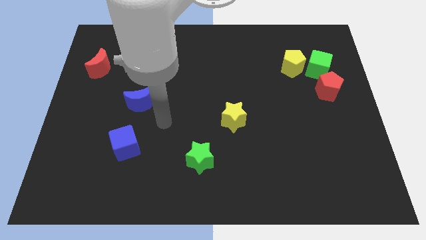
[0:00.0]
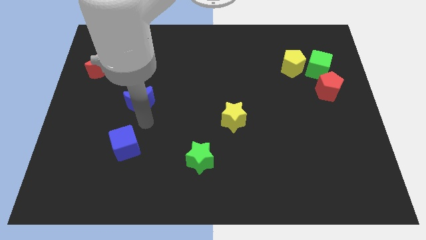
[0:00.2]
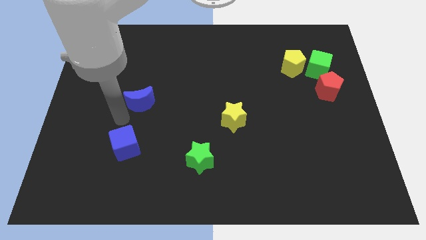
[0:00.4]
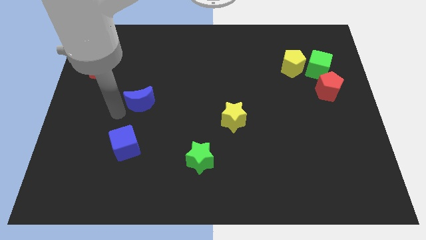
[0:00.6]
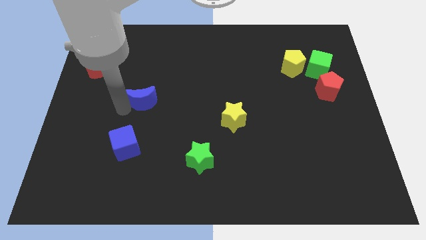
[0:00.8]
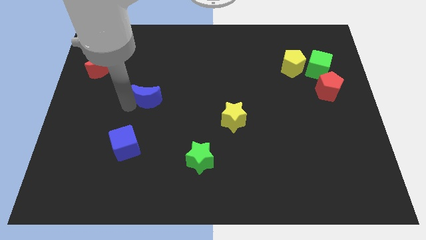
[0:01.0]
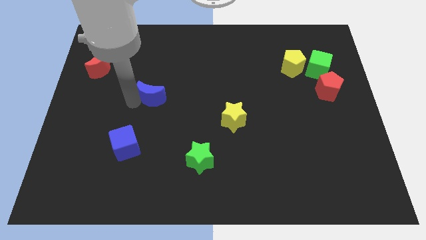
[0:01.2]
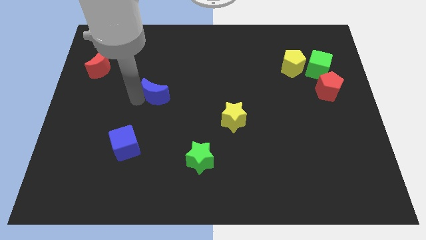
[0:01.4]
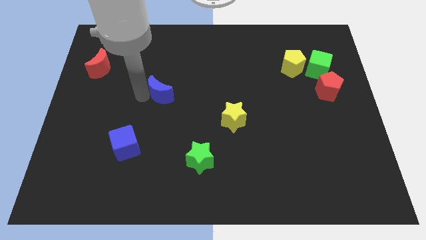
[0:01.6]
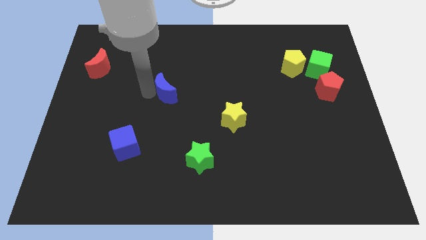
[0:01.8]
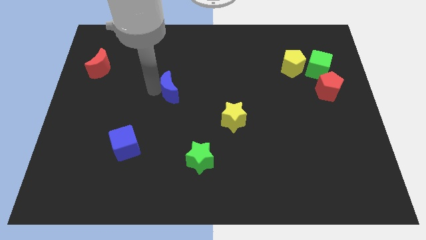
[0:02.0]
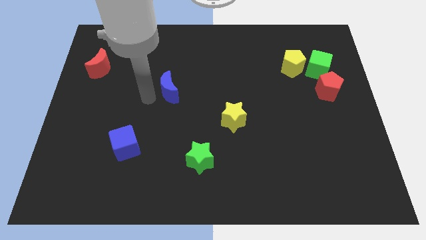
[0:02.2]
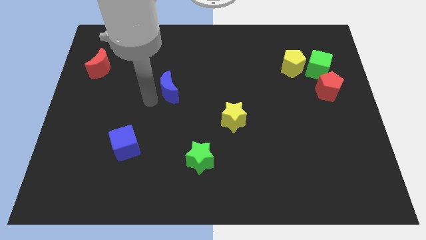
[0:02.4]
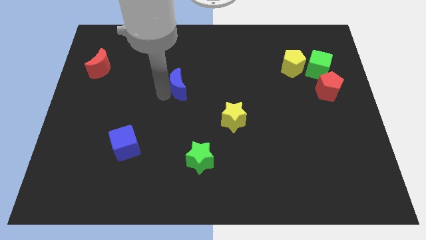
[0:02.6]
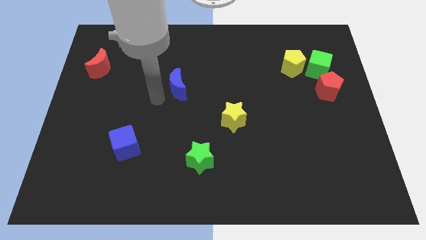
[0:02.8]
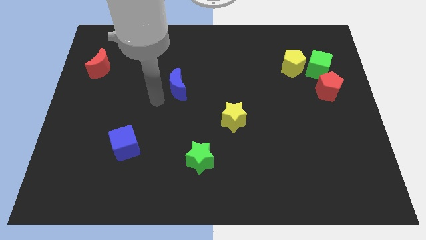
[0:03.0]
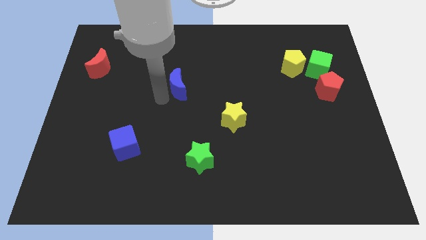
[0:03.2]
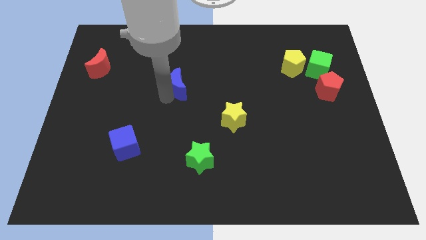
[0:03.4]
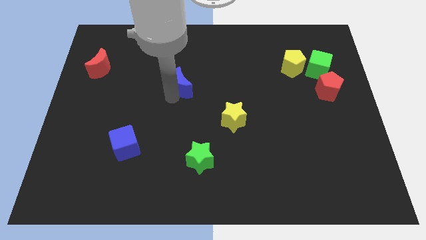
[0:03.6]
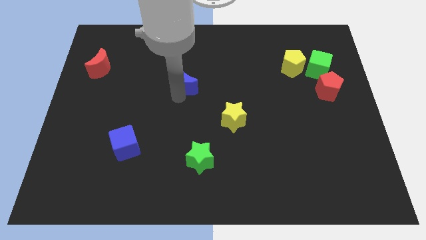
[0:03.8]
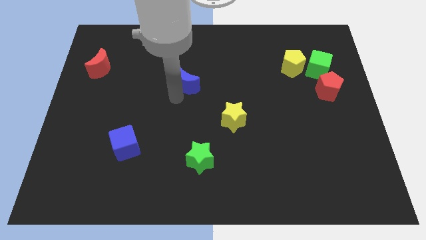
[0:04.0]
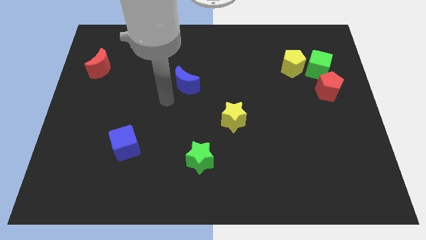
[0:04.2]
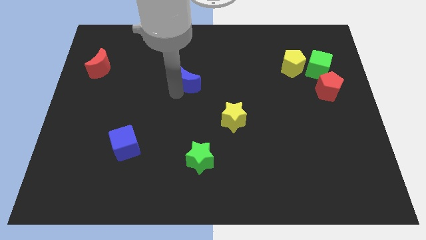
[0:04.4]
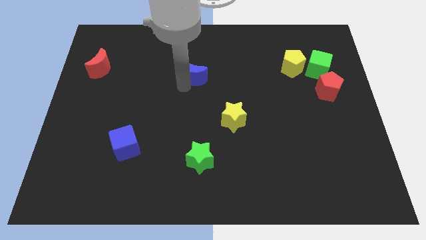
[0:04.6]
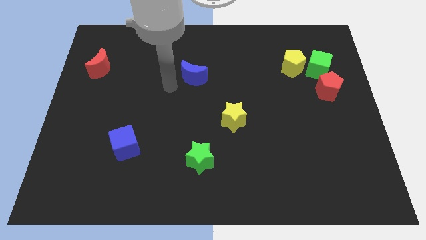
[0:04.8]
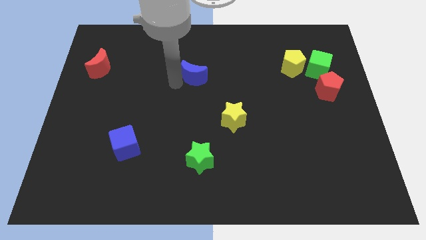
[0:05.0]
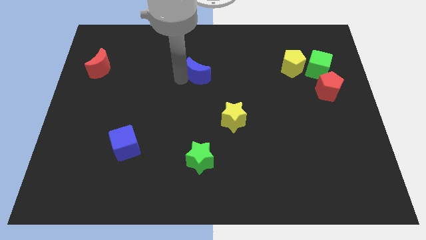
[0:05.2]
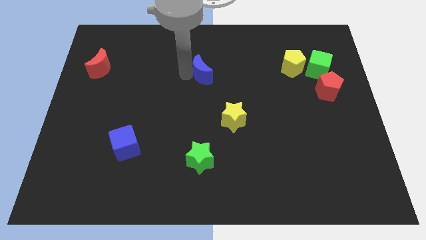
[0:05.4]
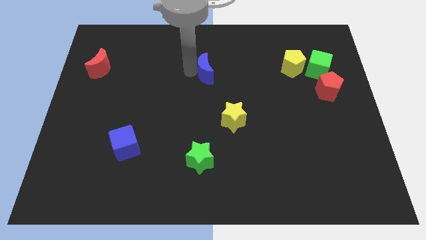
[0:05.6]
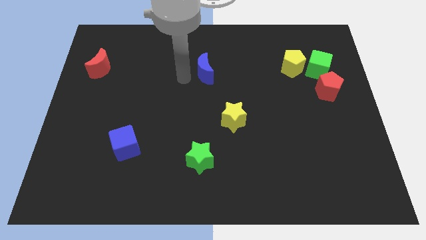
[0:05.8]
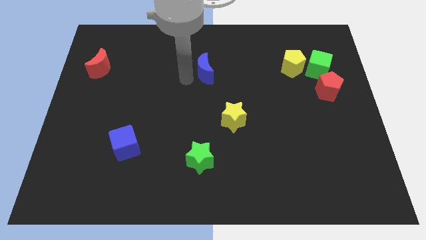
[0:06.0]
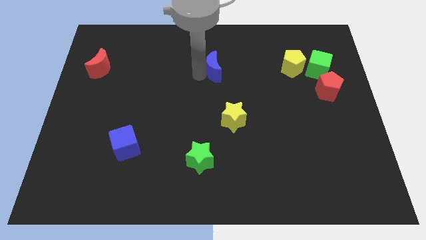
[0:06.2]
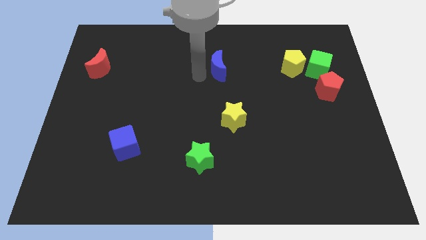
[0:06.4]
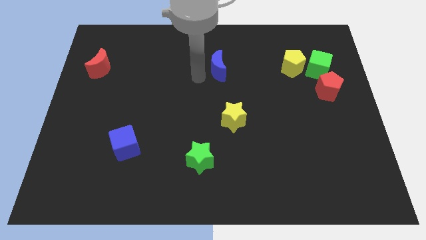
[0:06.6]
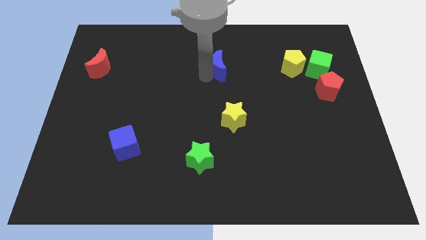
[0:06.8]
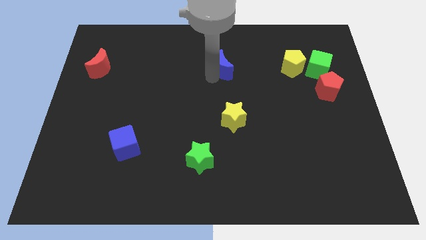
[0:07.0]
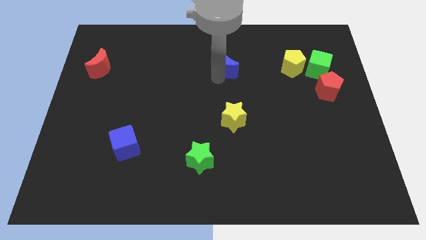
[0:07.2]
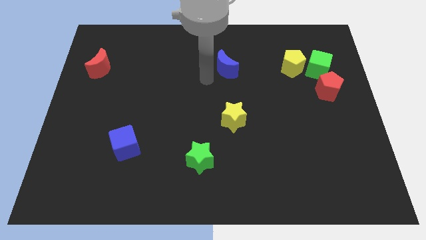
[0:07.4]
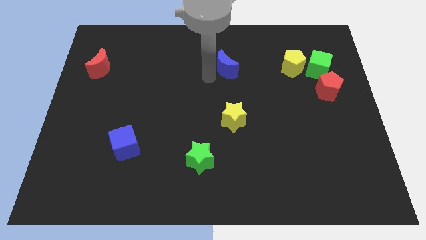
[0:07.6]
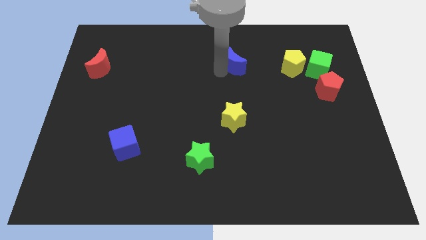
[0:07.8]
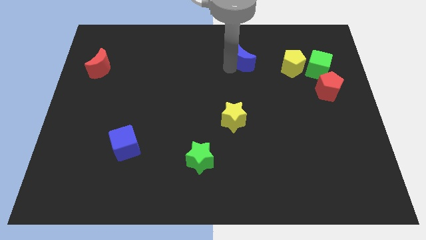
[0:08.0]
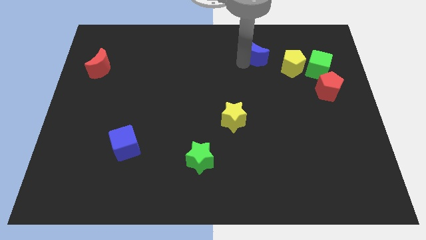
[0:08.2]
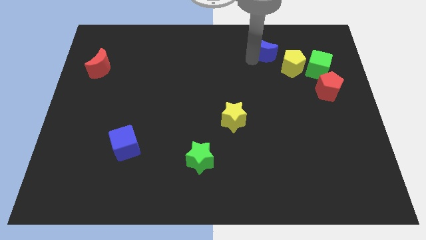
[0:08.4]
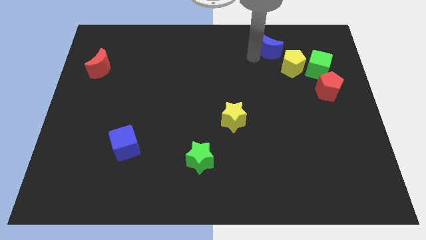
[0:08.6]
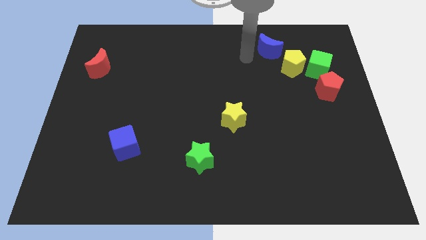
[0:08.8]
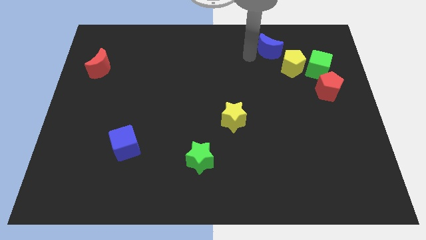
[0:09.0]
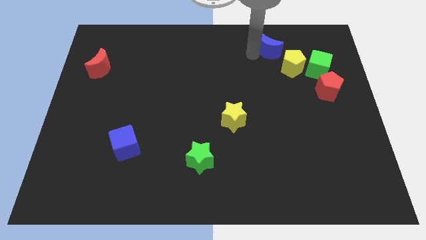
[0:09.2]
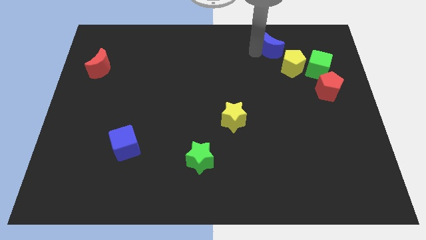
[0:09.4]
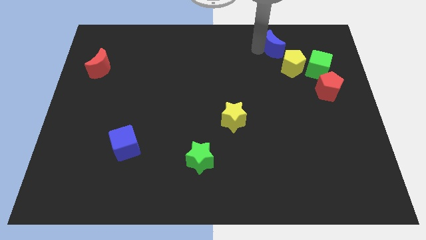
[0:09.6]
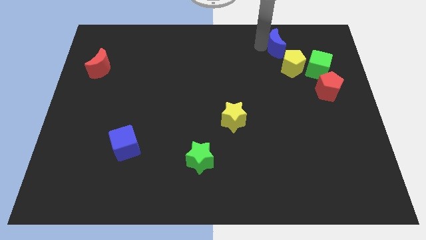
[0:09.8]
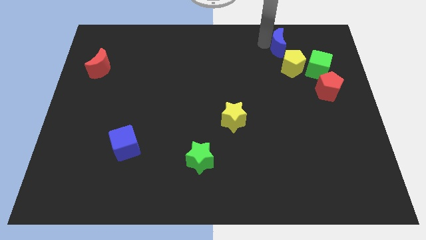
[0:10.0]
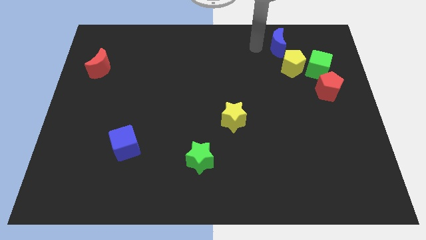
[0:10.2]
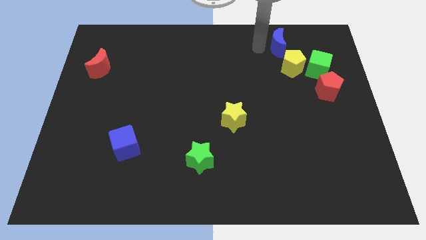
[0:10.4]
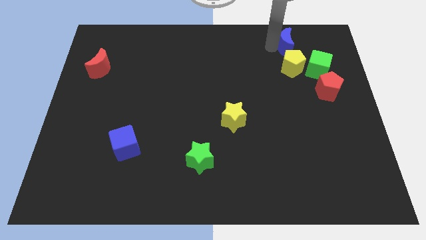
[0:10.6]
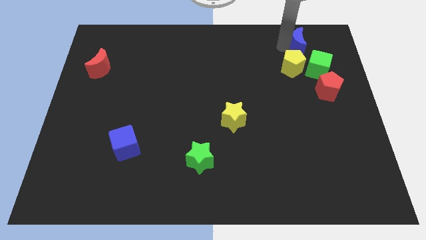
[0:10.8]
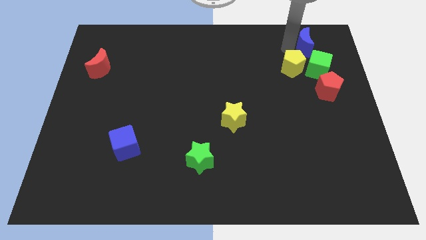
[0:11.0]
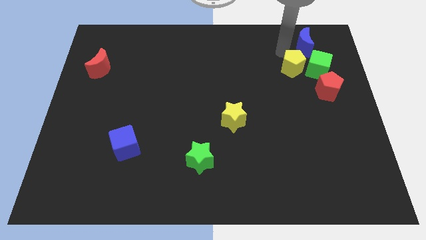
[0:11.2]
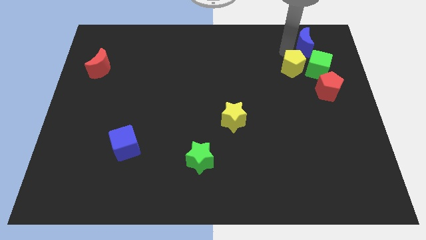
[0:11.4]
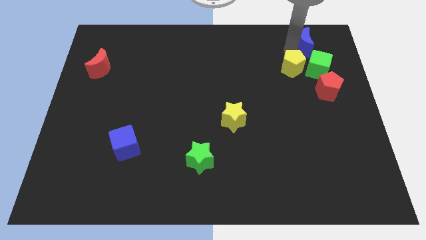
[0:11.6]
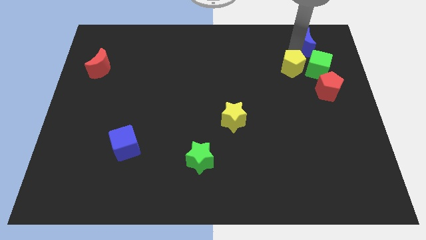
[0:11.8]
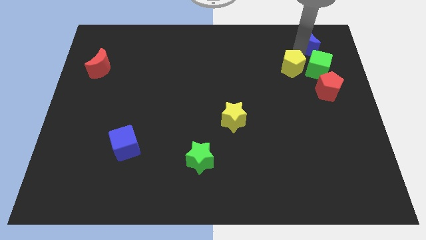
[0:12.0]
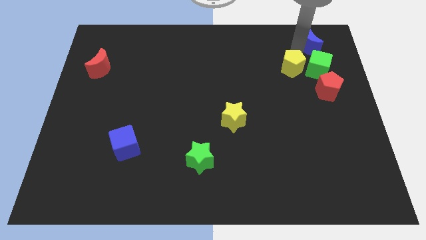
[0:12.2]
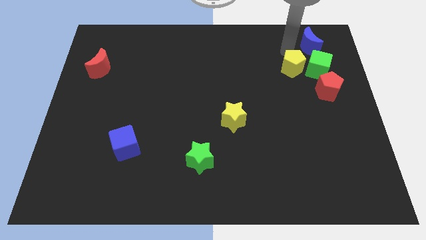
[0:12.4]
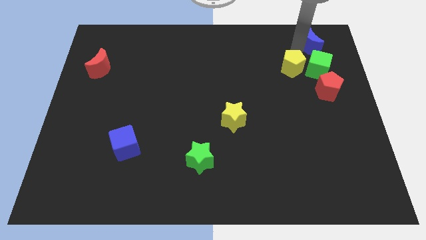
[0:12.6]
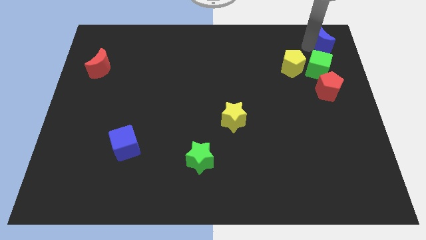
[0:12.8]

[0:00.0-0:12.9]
move the blue moon to the top right corner
